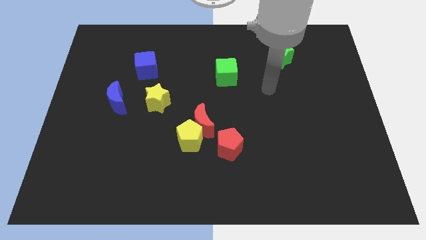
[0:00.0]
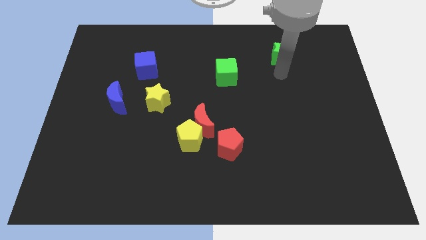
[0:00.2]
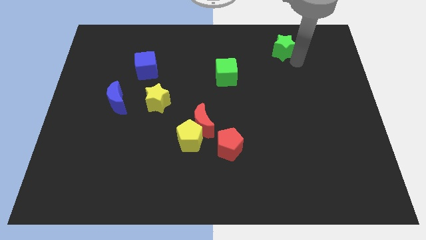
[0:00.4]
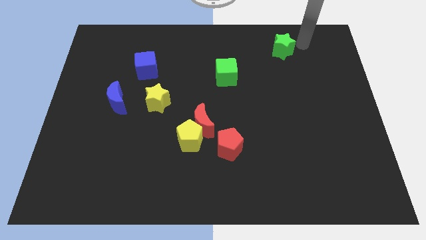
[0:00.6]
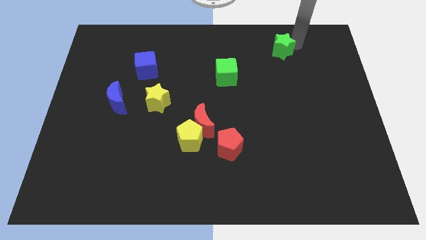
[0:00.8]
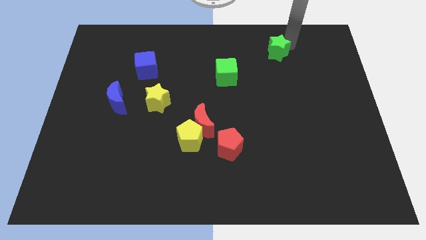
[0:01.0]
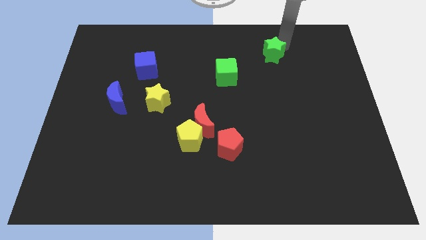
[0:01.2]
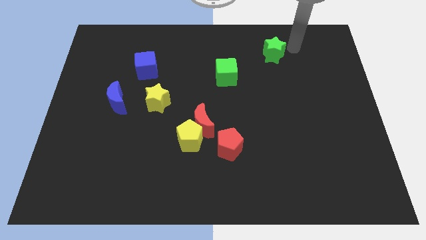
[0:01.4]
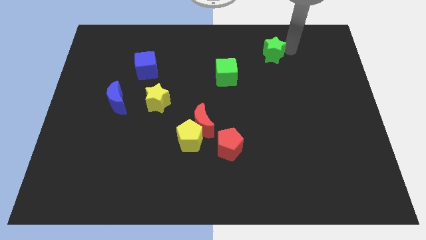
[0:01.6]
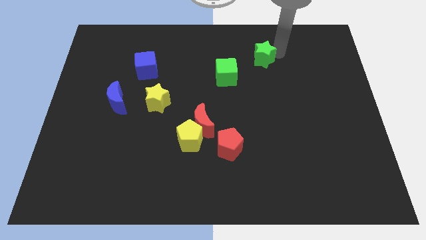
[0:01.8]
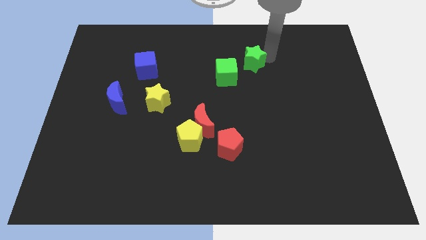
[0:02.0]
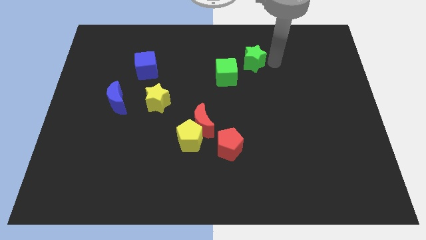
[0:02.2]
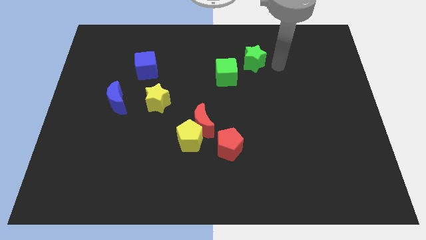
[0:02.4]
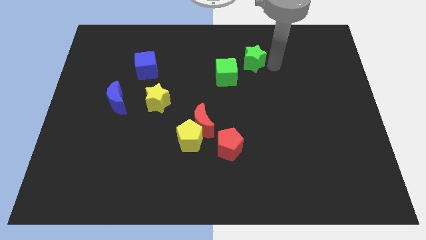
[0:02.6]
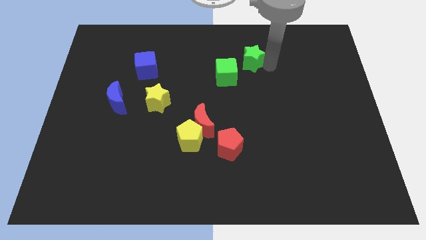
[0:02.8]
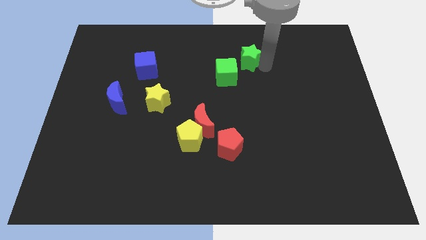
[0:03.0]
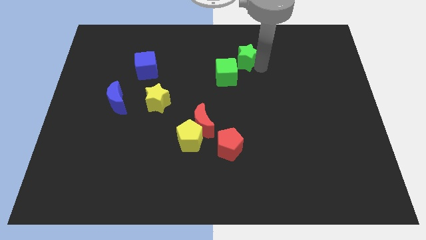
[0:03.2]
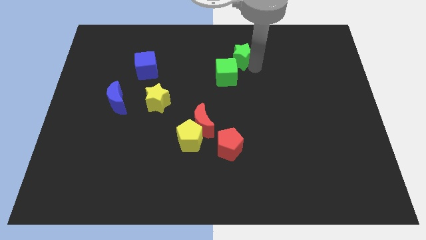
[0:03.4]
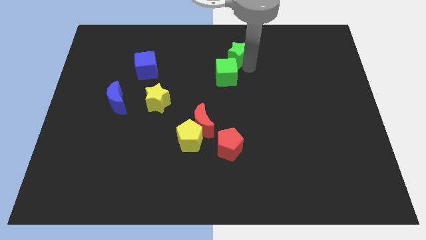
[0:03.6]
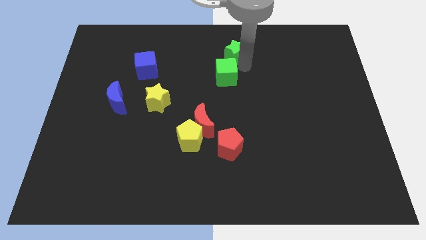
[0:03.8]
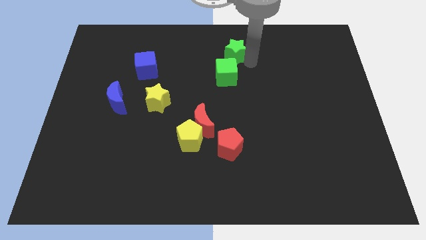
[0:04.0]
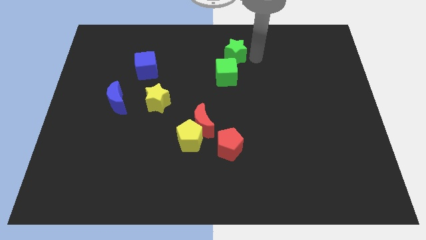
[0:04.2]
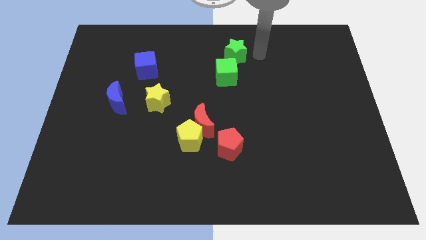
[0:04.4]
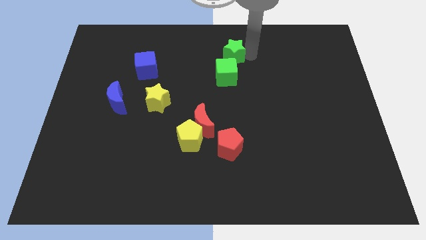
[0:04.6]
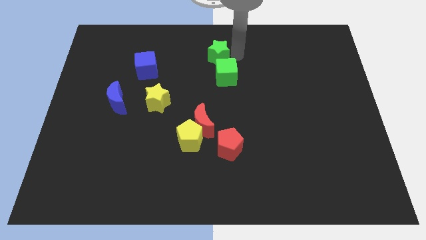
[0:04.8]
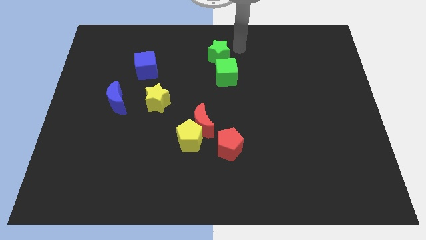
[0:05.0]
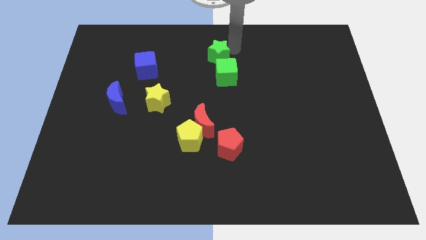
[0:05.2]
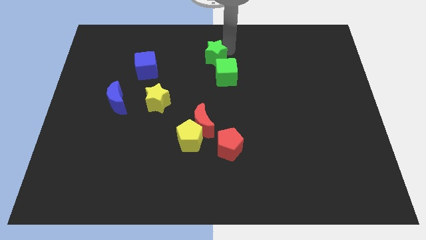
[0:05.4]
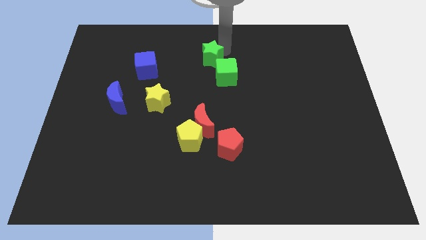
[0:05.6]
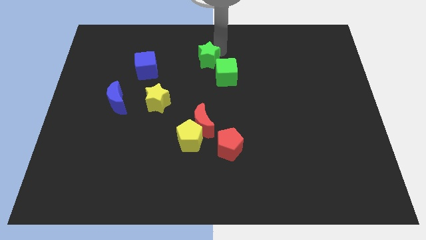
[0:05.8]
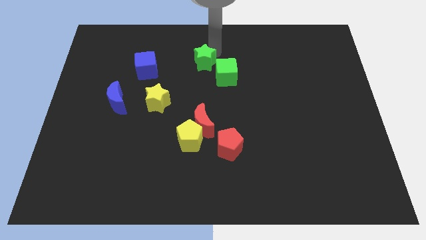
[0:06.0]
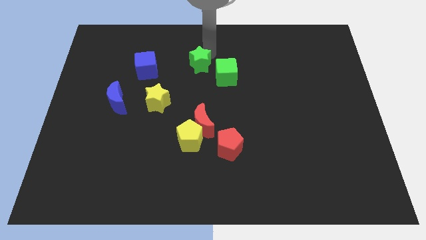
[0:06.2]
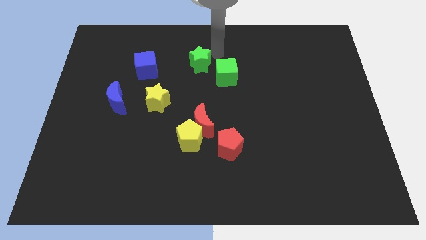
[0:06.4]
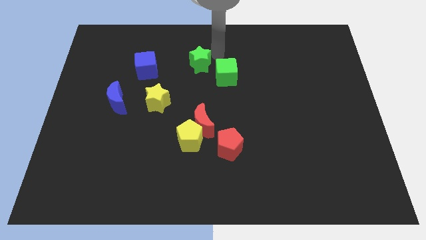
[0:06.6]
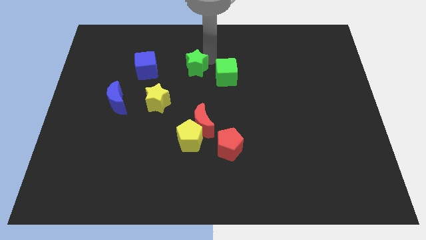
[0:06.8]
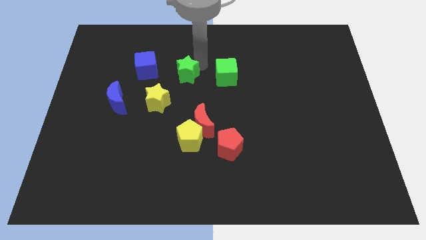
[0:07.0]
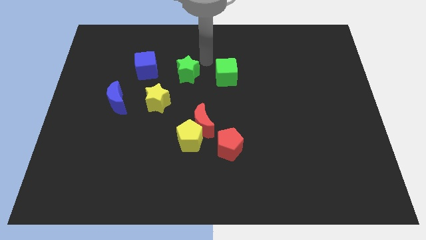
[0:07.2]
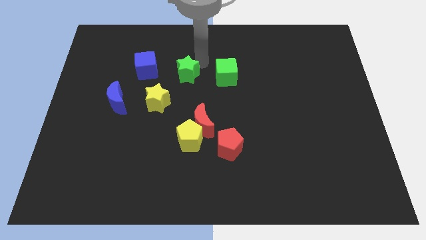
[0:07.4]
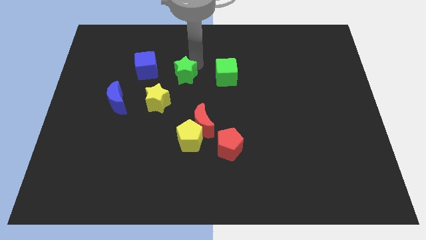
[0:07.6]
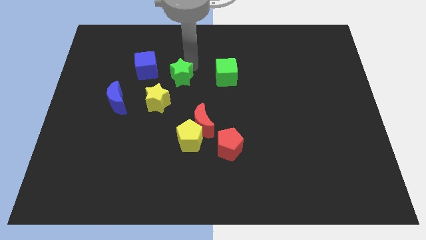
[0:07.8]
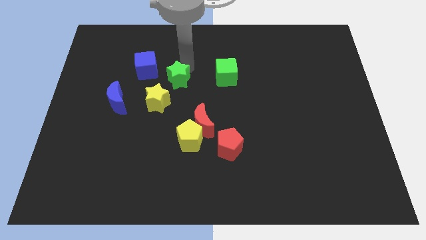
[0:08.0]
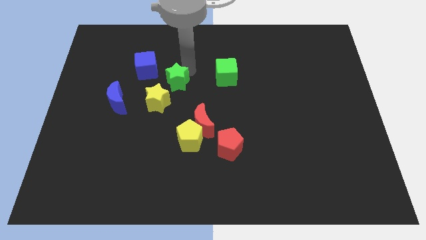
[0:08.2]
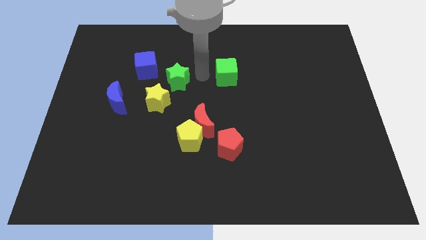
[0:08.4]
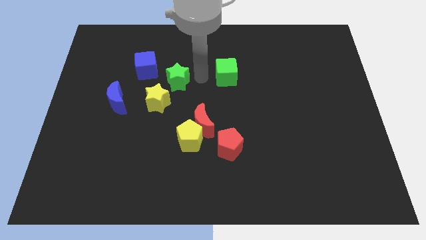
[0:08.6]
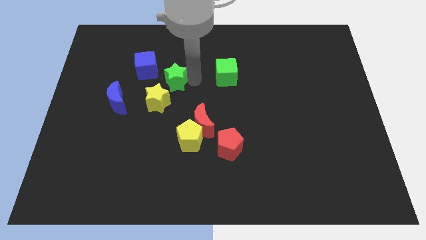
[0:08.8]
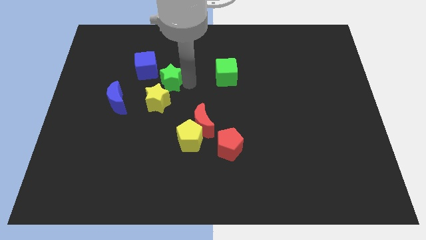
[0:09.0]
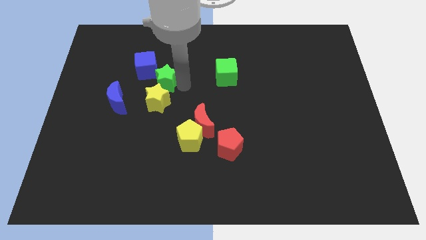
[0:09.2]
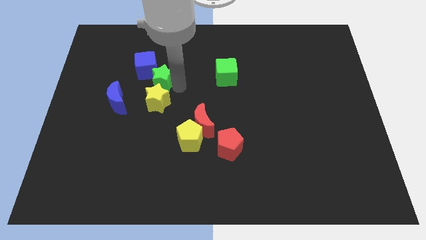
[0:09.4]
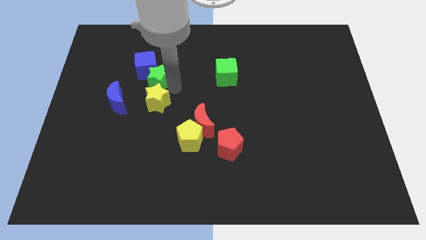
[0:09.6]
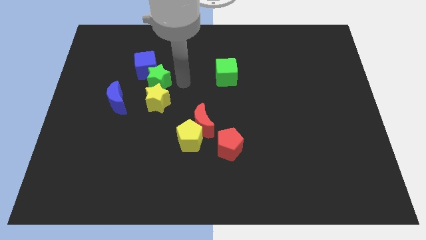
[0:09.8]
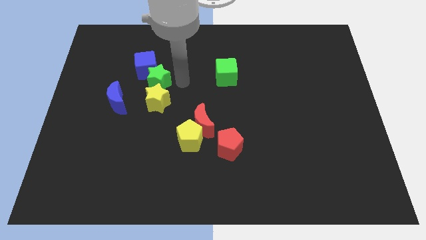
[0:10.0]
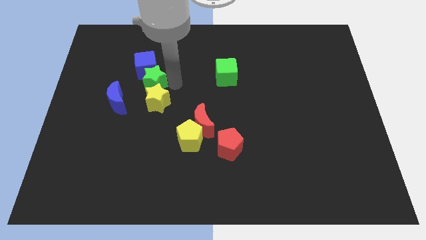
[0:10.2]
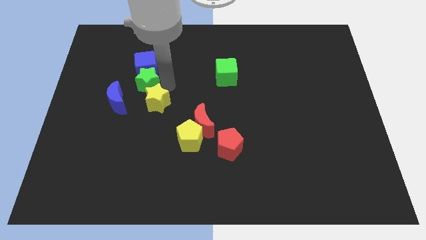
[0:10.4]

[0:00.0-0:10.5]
move the green star diagonally down and to the left of the blue cube

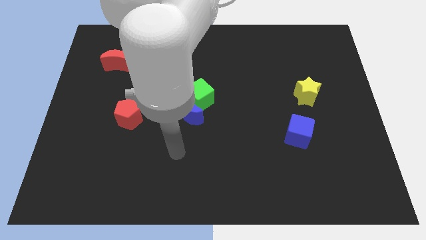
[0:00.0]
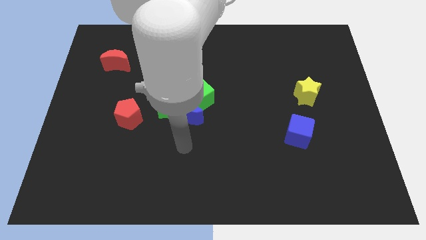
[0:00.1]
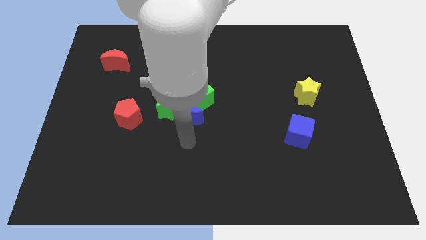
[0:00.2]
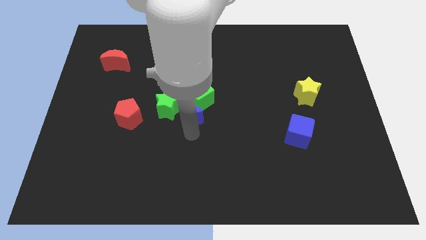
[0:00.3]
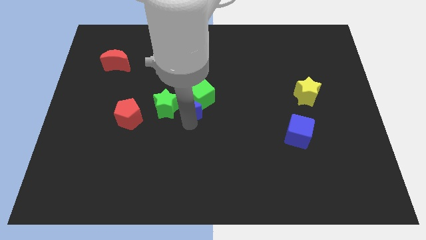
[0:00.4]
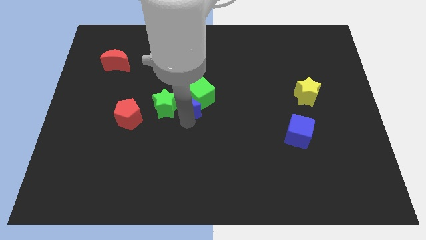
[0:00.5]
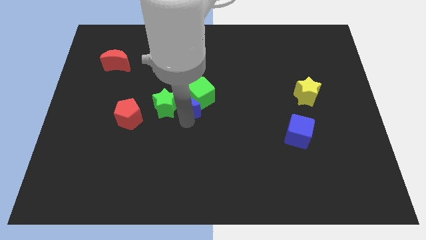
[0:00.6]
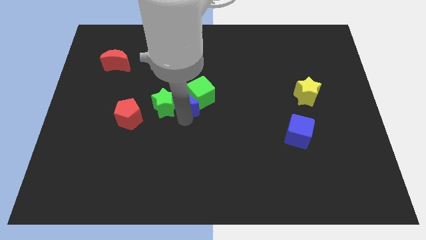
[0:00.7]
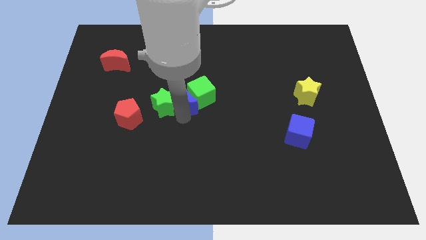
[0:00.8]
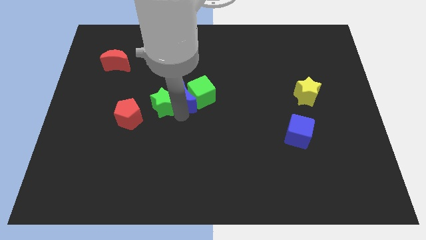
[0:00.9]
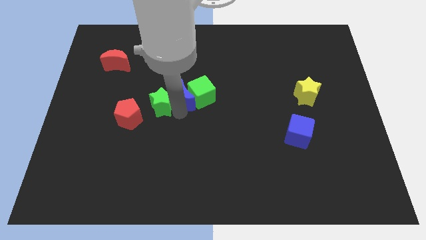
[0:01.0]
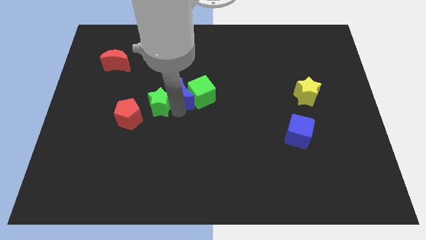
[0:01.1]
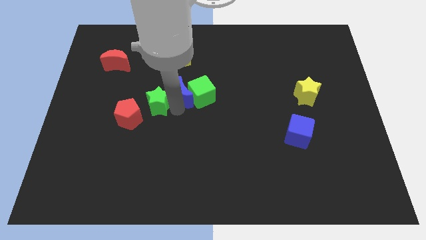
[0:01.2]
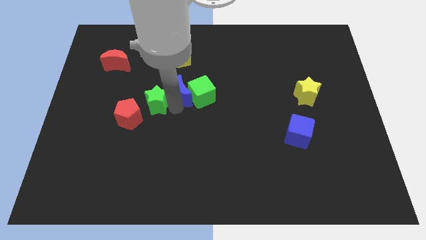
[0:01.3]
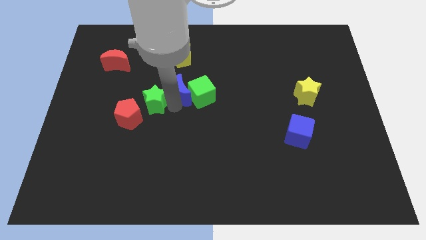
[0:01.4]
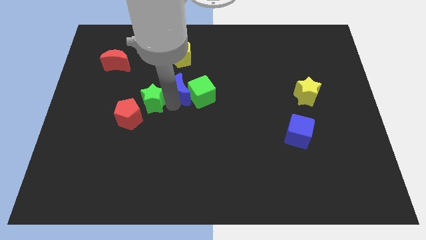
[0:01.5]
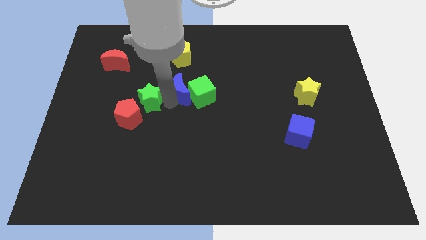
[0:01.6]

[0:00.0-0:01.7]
push the green star to the top of the red pentagon
